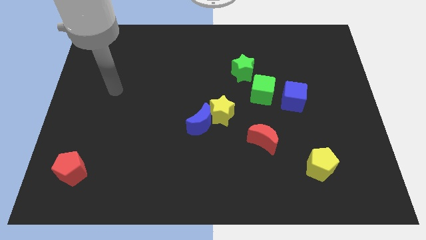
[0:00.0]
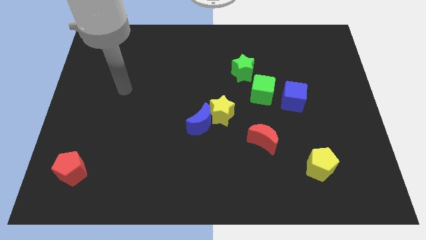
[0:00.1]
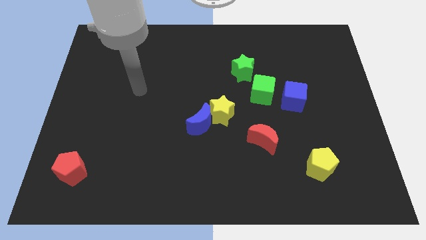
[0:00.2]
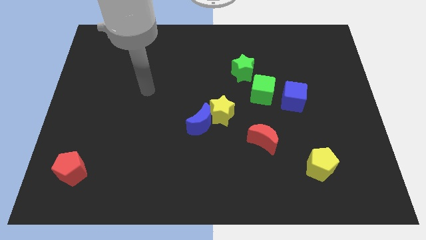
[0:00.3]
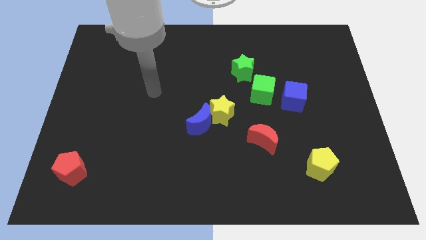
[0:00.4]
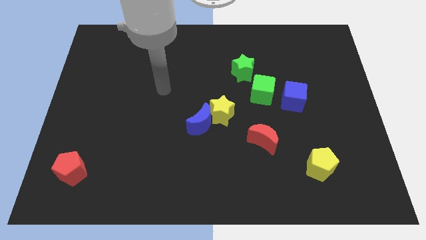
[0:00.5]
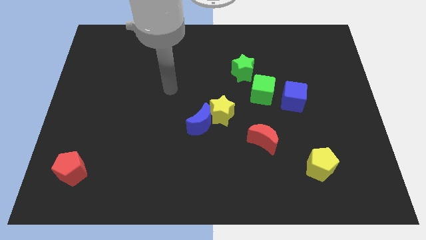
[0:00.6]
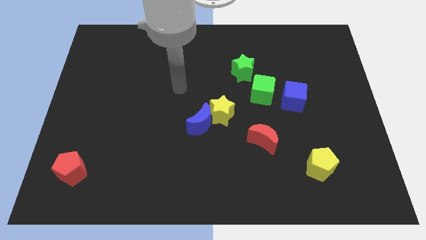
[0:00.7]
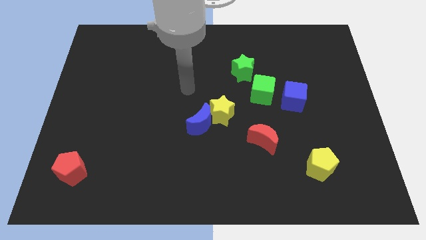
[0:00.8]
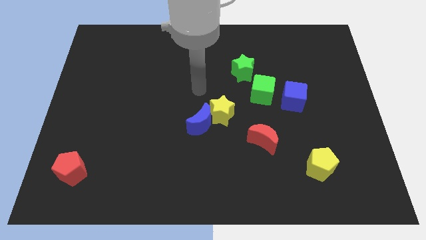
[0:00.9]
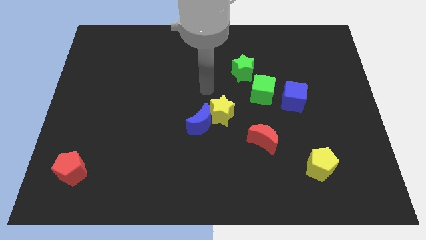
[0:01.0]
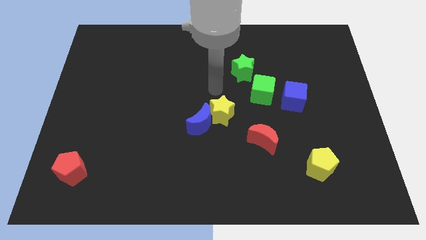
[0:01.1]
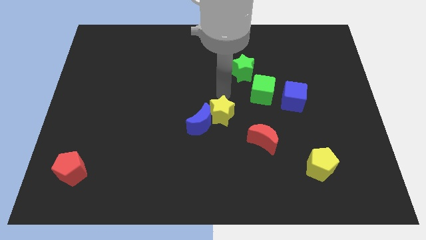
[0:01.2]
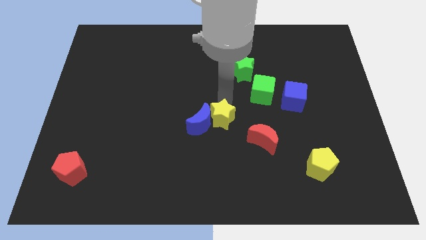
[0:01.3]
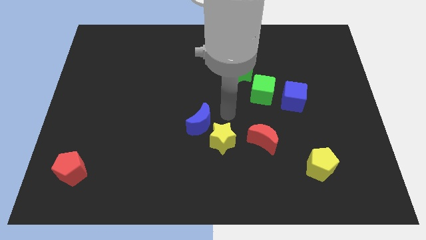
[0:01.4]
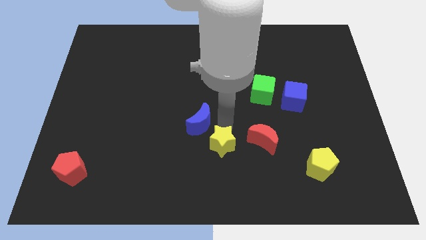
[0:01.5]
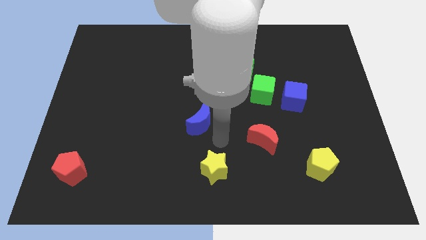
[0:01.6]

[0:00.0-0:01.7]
pull the blue moon apart from the yellow star

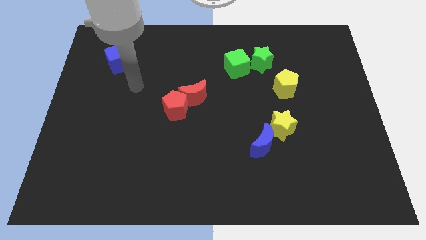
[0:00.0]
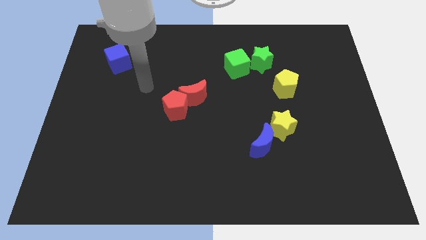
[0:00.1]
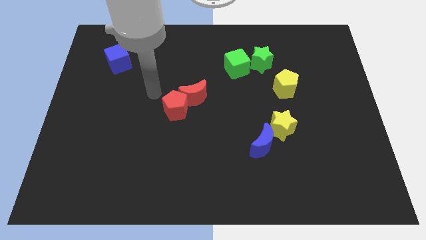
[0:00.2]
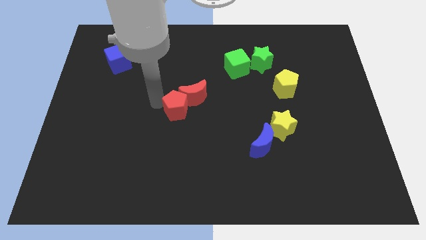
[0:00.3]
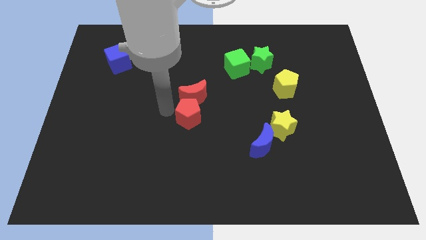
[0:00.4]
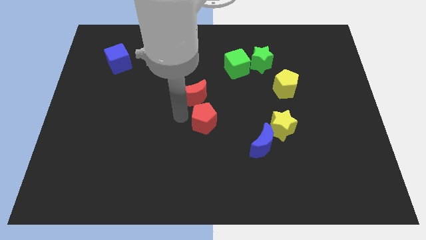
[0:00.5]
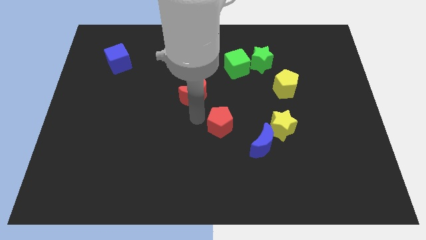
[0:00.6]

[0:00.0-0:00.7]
separate the red moon from the red pentagon

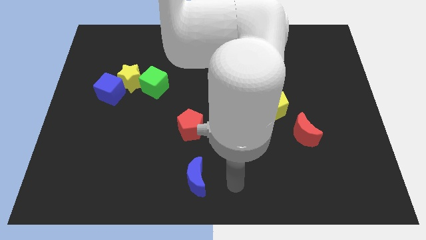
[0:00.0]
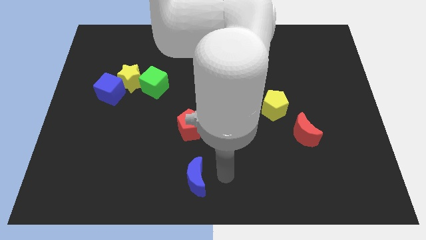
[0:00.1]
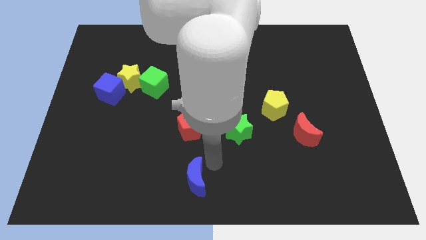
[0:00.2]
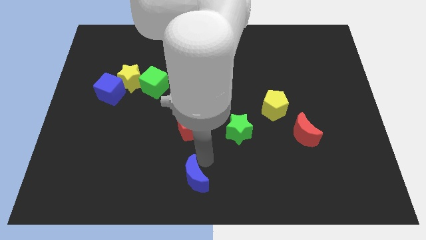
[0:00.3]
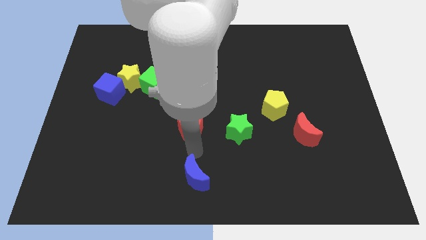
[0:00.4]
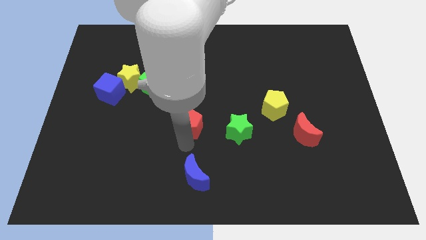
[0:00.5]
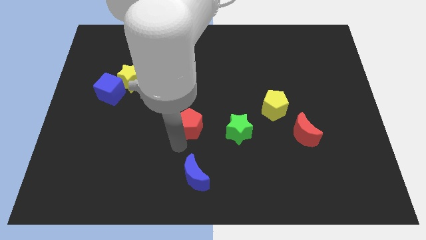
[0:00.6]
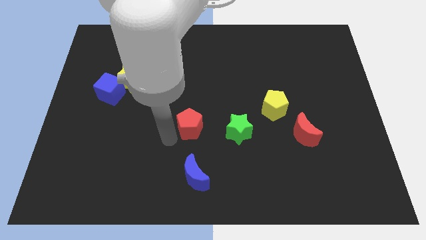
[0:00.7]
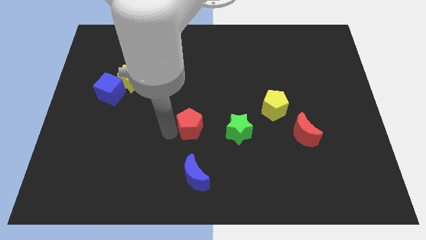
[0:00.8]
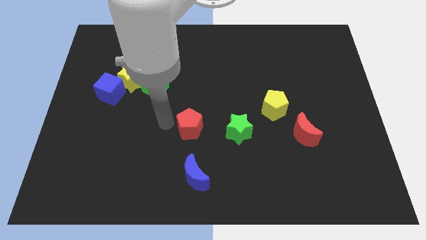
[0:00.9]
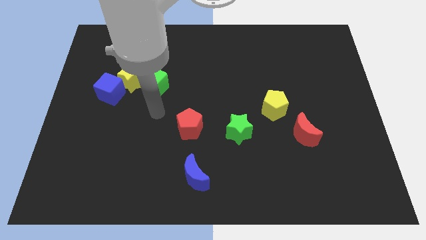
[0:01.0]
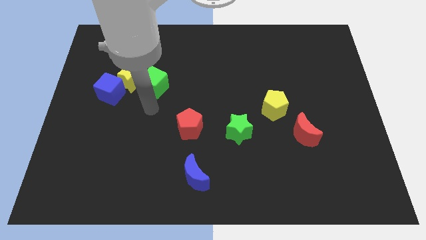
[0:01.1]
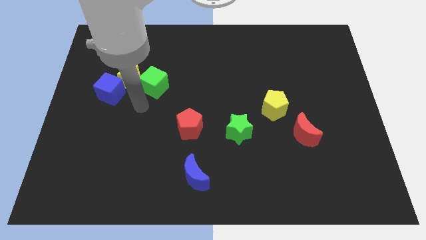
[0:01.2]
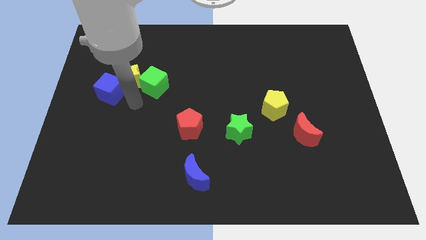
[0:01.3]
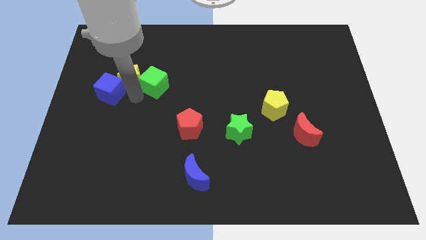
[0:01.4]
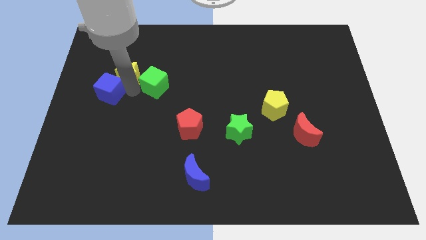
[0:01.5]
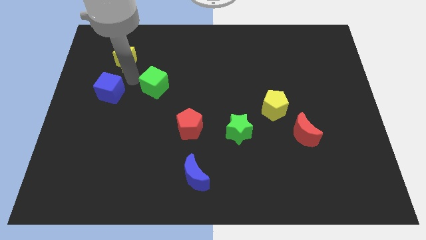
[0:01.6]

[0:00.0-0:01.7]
move the green cube away from the yellow star

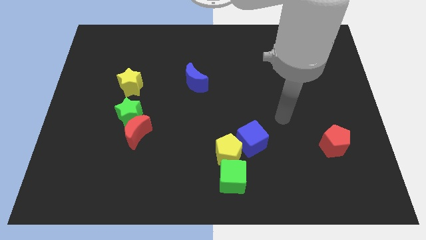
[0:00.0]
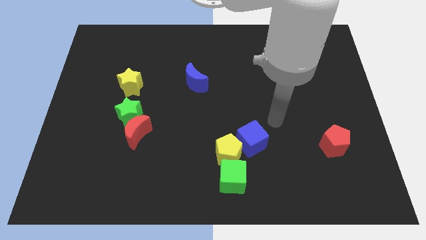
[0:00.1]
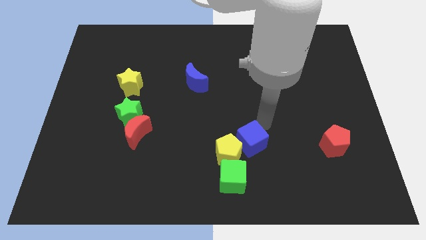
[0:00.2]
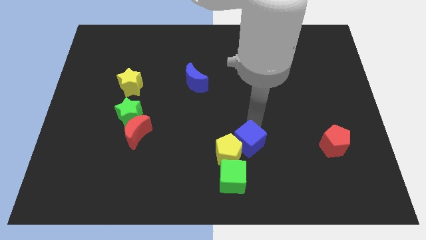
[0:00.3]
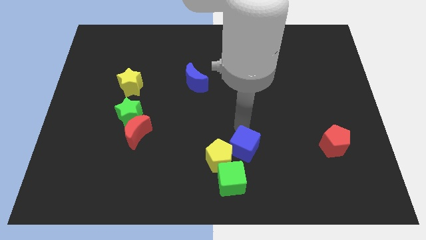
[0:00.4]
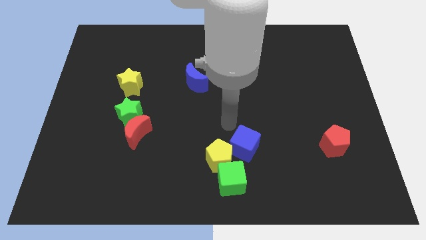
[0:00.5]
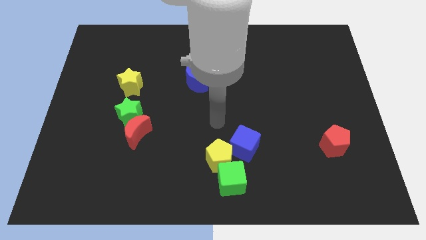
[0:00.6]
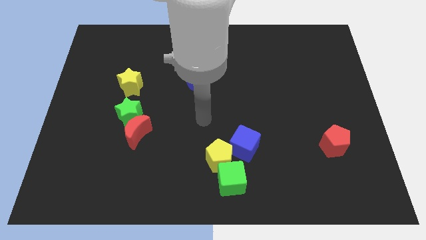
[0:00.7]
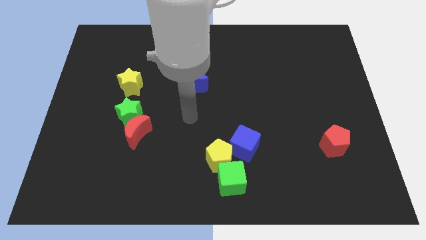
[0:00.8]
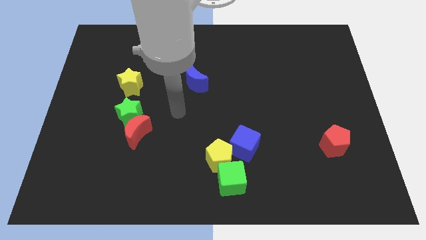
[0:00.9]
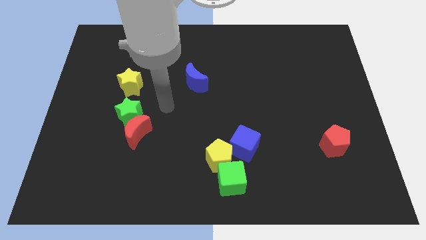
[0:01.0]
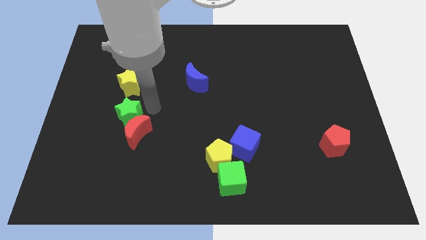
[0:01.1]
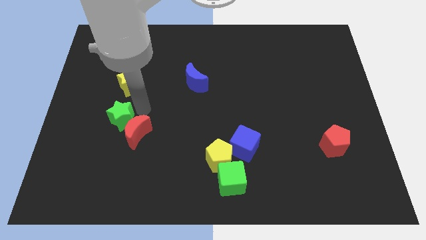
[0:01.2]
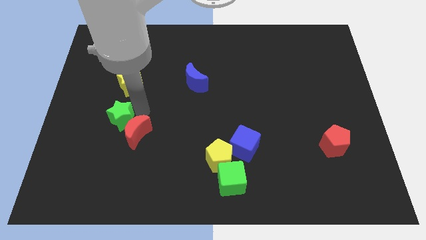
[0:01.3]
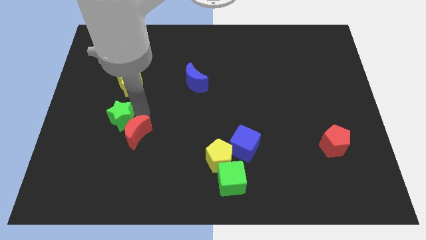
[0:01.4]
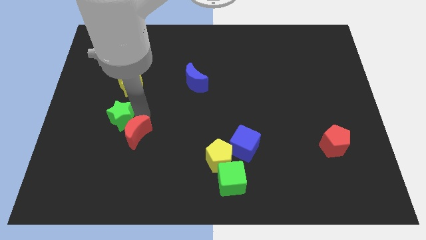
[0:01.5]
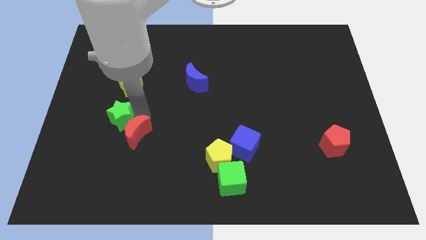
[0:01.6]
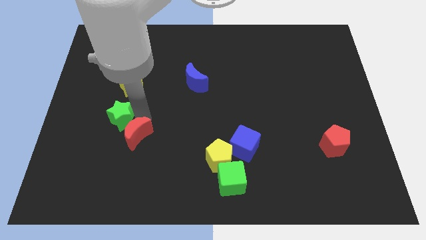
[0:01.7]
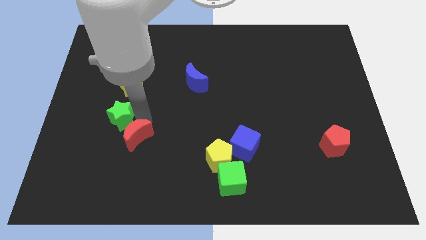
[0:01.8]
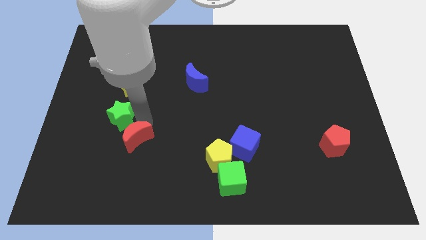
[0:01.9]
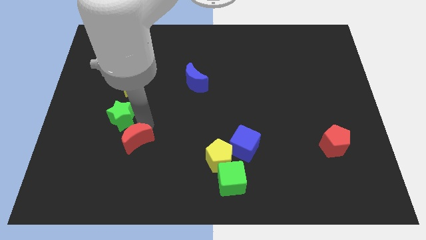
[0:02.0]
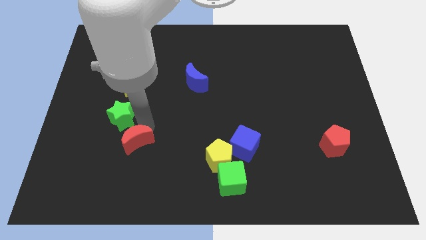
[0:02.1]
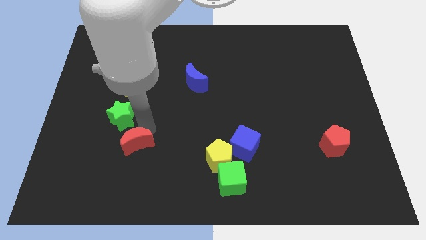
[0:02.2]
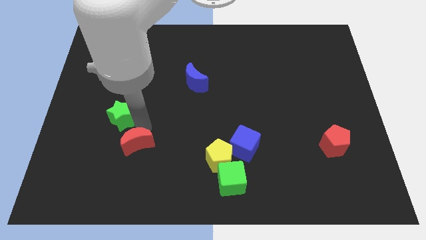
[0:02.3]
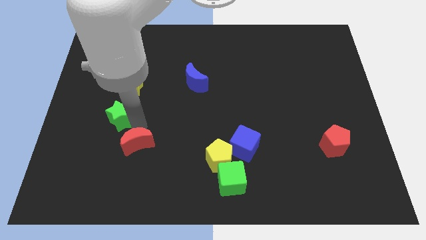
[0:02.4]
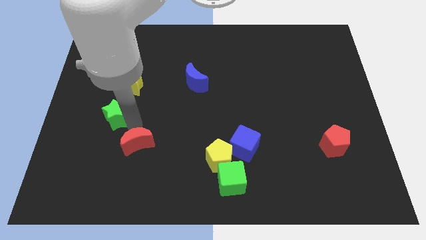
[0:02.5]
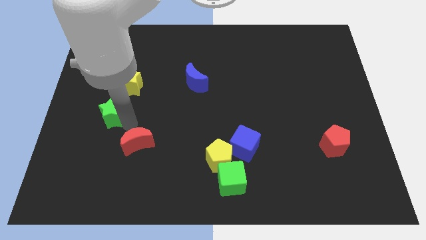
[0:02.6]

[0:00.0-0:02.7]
move the red moon away from the green star

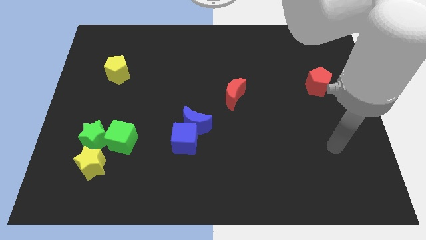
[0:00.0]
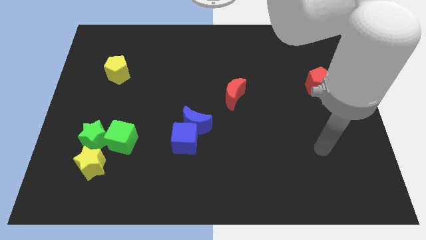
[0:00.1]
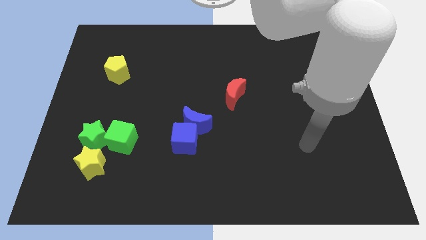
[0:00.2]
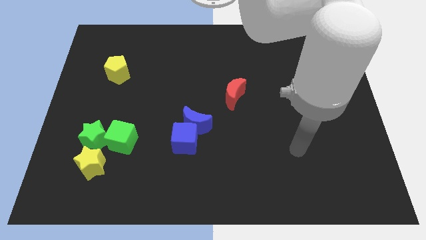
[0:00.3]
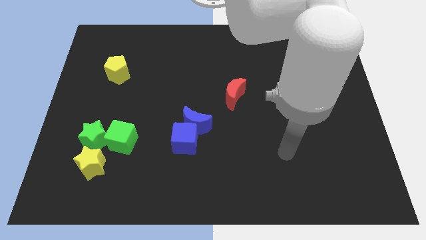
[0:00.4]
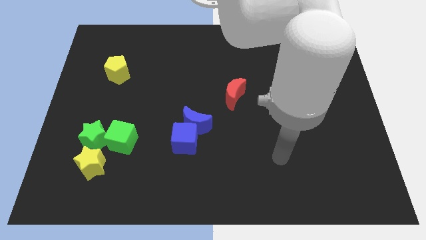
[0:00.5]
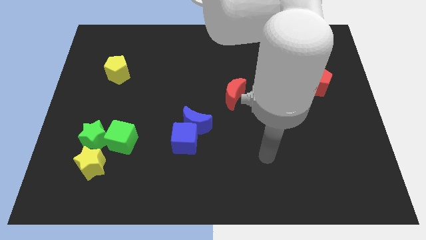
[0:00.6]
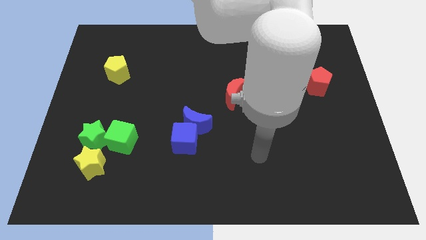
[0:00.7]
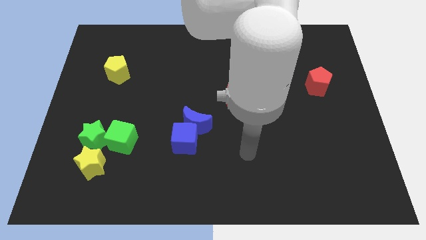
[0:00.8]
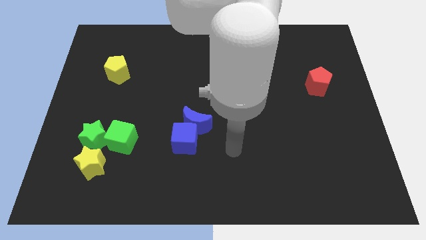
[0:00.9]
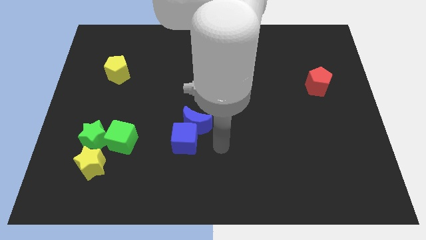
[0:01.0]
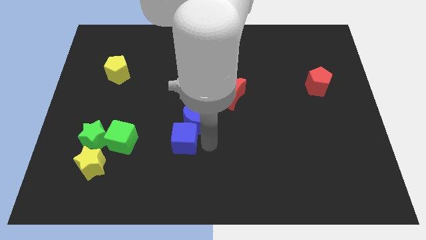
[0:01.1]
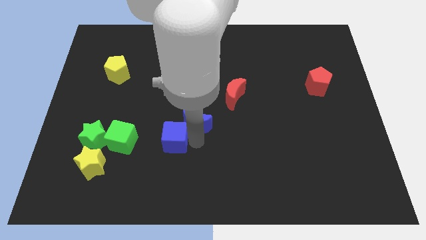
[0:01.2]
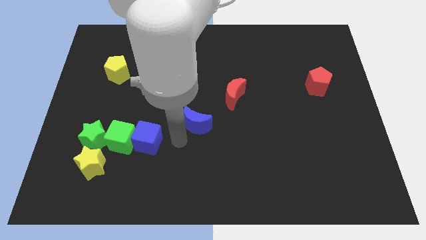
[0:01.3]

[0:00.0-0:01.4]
separate the blue moon from the blue cube

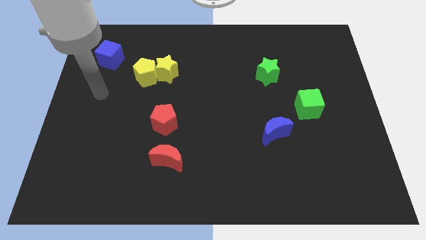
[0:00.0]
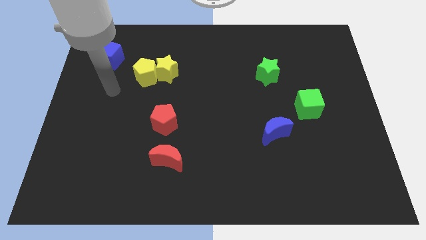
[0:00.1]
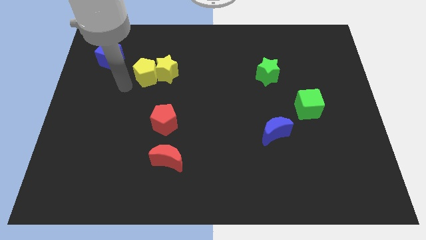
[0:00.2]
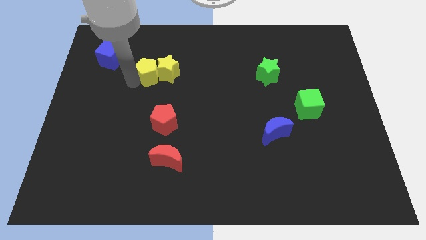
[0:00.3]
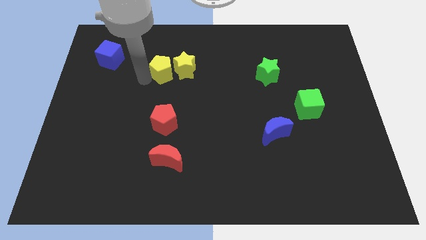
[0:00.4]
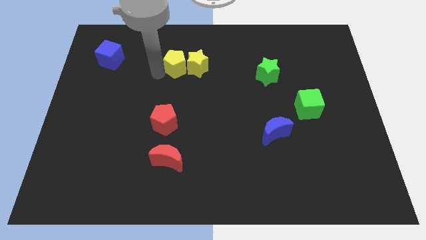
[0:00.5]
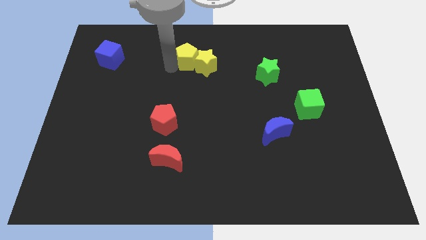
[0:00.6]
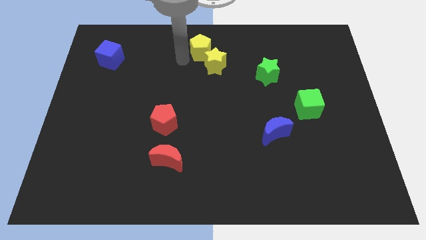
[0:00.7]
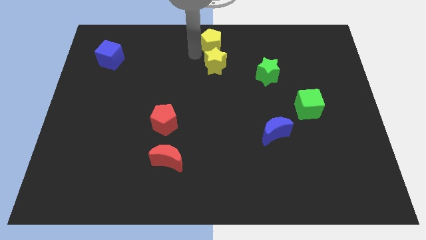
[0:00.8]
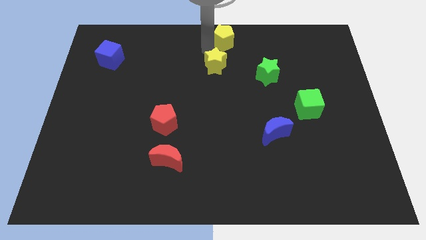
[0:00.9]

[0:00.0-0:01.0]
separate the yellow star from the yellow pentagon
